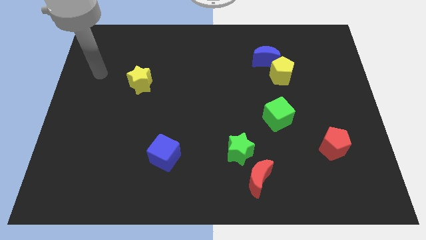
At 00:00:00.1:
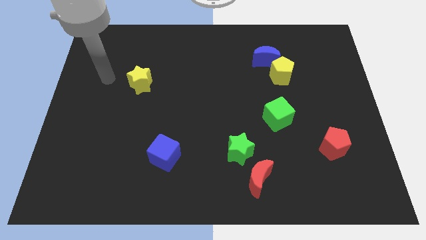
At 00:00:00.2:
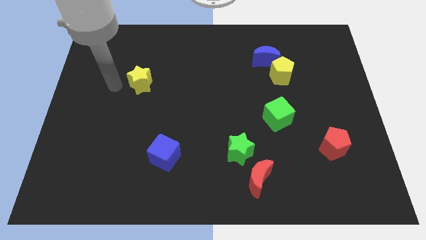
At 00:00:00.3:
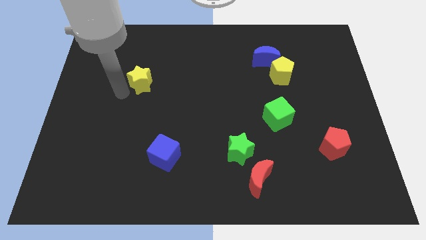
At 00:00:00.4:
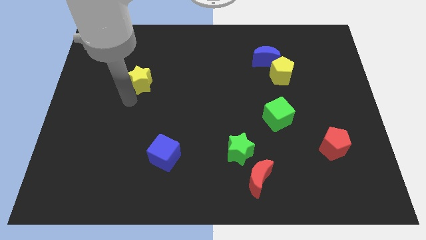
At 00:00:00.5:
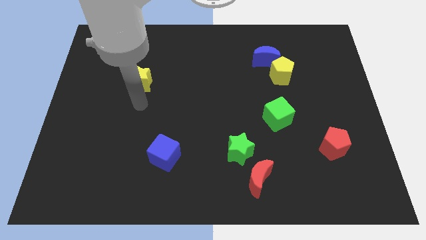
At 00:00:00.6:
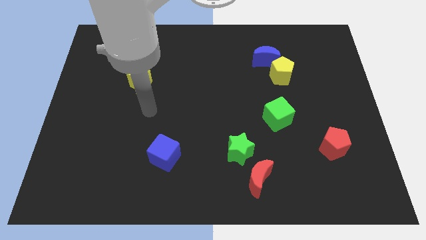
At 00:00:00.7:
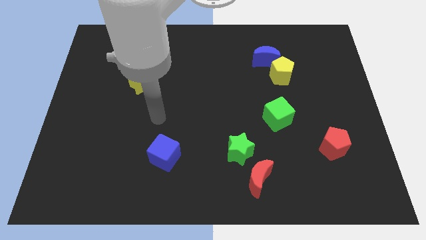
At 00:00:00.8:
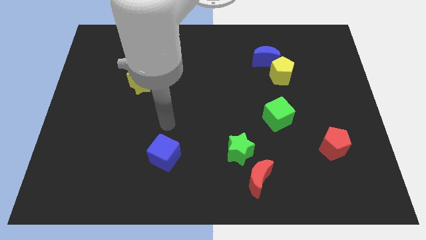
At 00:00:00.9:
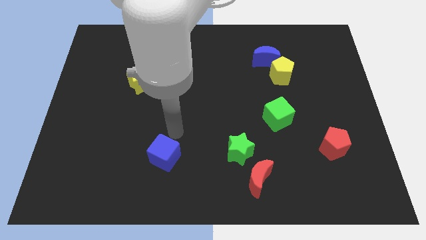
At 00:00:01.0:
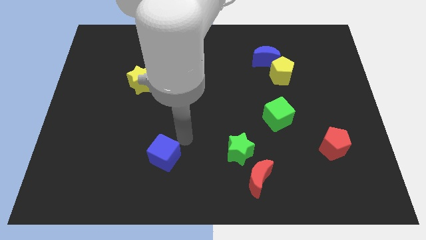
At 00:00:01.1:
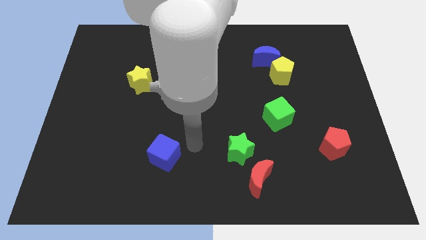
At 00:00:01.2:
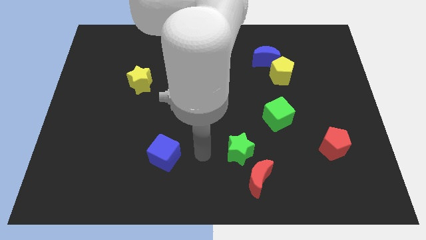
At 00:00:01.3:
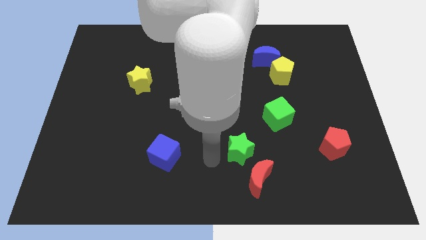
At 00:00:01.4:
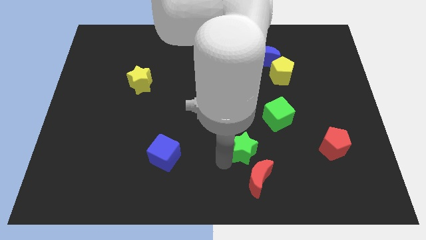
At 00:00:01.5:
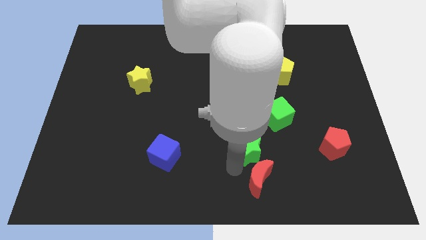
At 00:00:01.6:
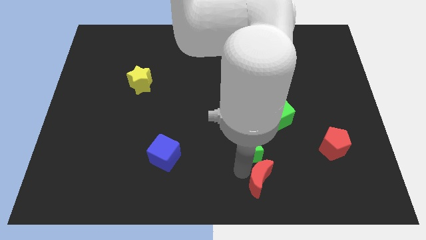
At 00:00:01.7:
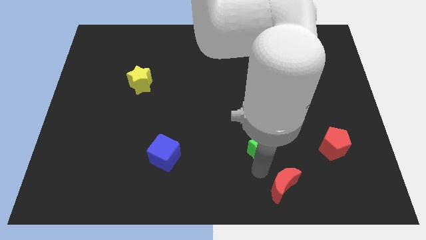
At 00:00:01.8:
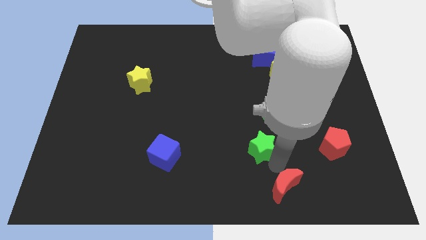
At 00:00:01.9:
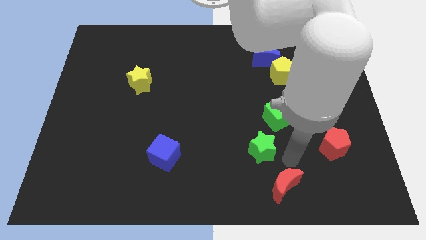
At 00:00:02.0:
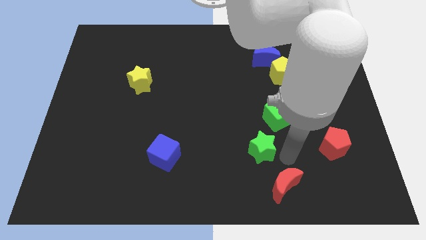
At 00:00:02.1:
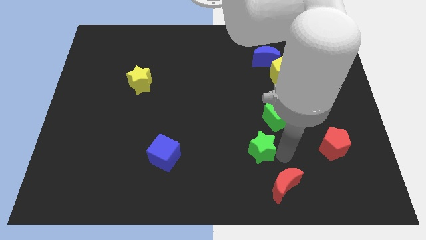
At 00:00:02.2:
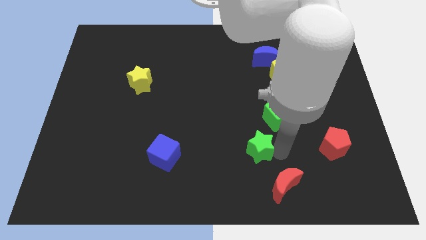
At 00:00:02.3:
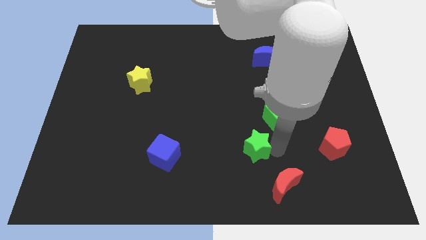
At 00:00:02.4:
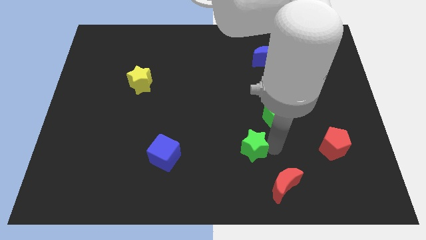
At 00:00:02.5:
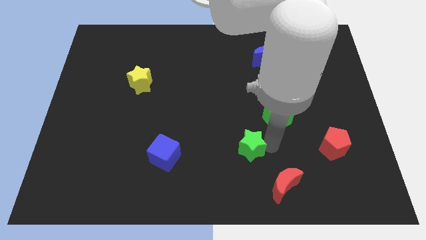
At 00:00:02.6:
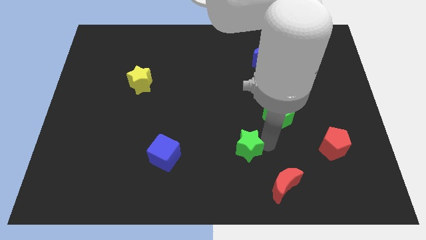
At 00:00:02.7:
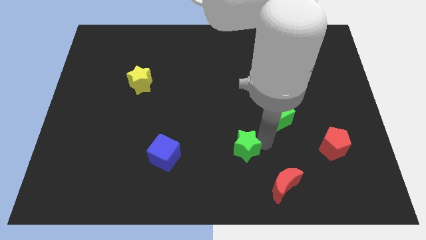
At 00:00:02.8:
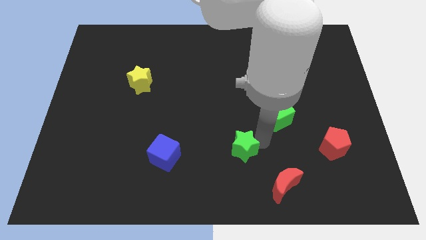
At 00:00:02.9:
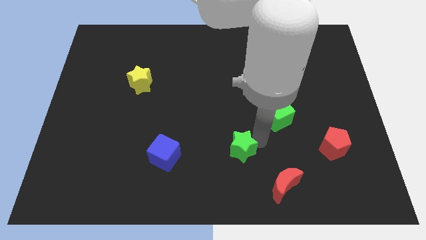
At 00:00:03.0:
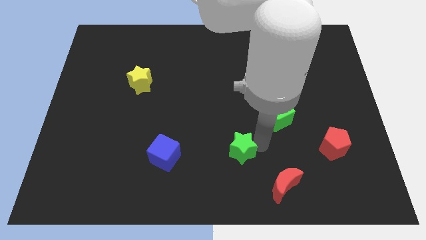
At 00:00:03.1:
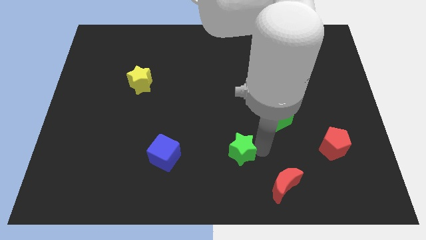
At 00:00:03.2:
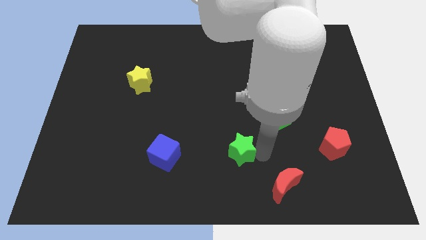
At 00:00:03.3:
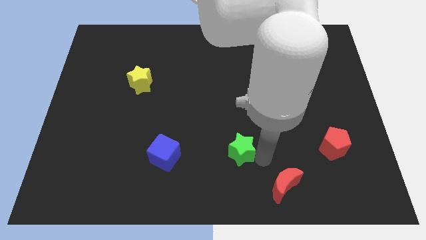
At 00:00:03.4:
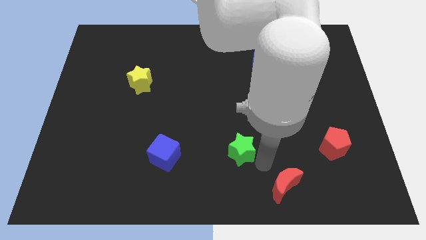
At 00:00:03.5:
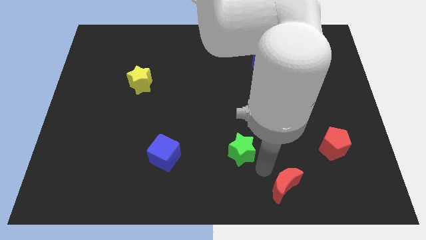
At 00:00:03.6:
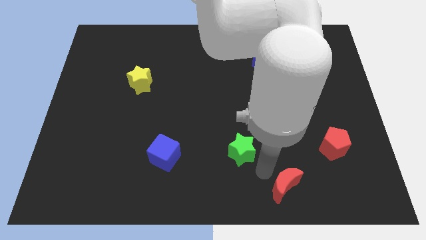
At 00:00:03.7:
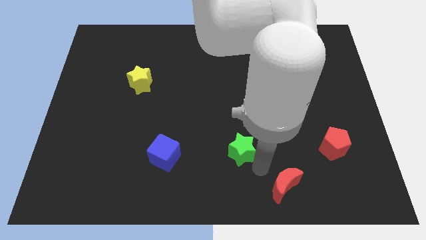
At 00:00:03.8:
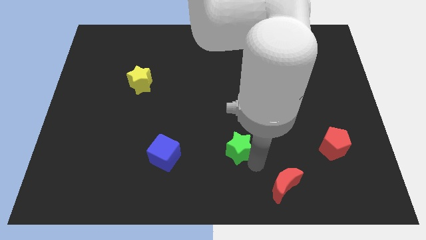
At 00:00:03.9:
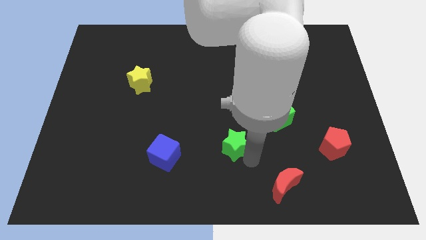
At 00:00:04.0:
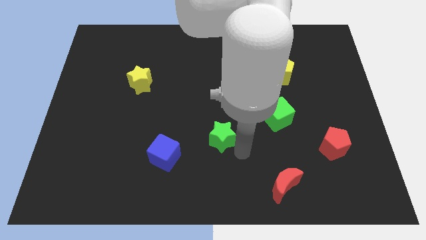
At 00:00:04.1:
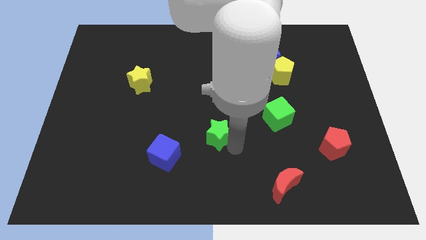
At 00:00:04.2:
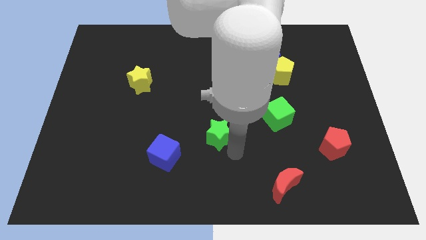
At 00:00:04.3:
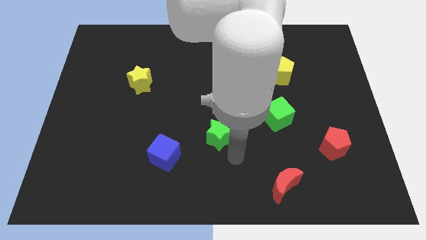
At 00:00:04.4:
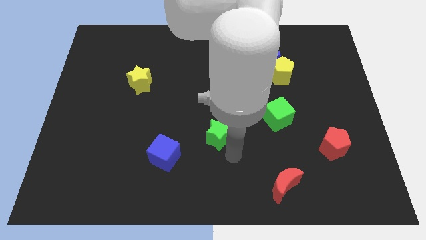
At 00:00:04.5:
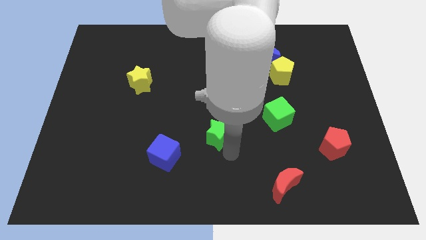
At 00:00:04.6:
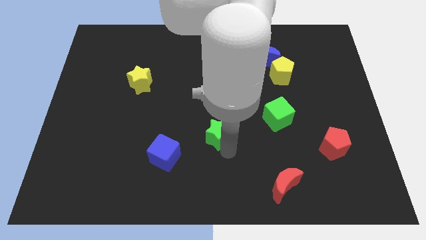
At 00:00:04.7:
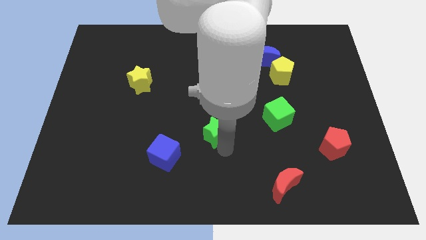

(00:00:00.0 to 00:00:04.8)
push the green star up and left diagonally somewhat

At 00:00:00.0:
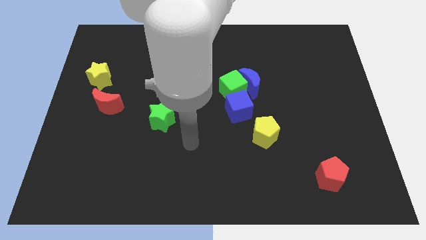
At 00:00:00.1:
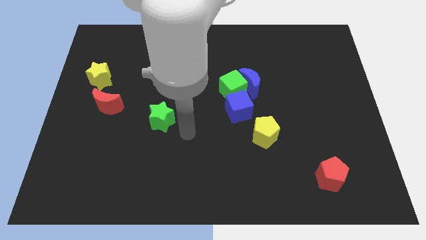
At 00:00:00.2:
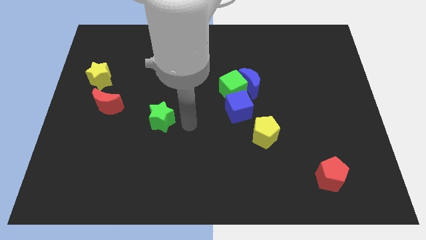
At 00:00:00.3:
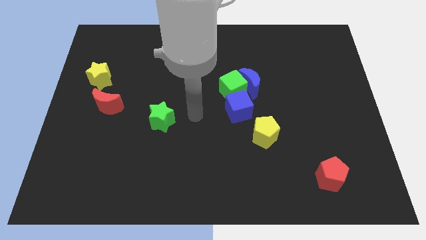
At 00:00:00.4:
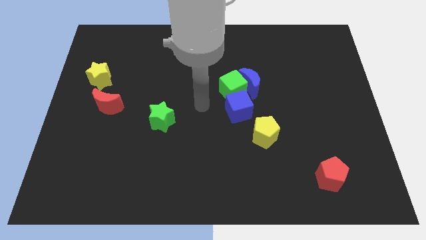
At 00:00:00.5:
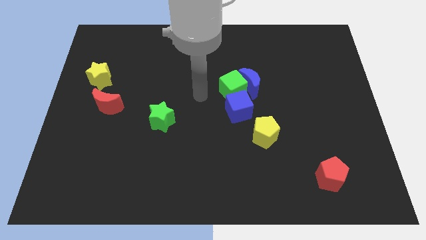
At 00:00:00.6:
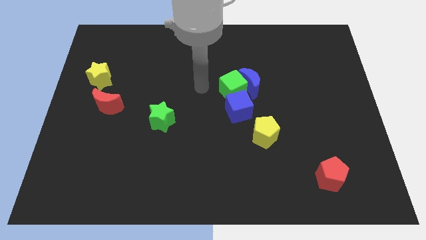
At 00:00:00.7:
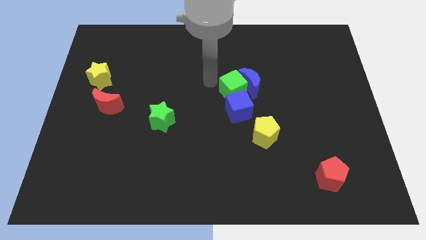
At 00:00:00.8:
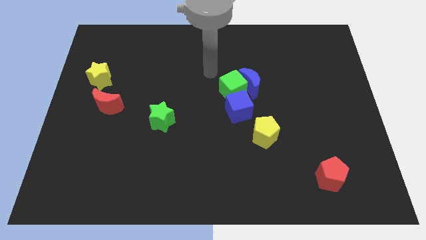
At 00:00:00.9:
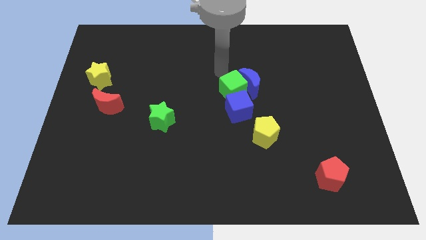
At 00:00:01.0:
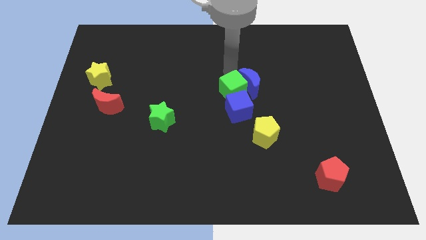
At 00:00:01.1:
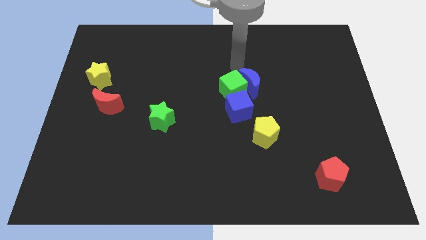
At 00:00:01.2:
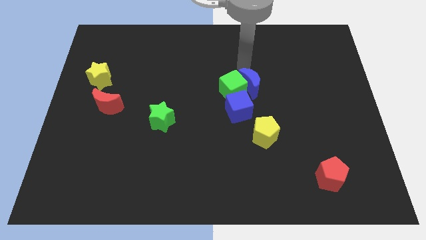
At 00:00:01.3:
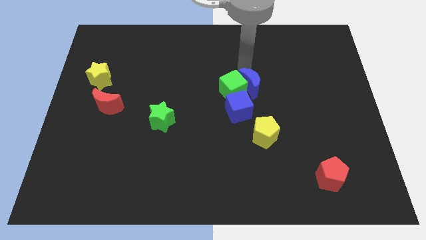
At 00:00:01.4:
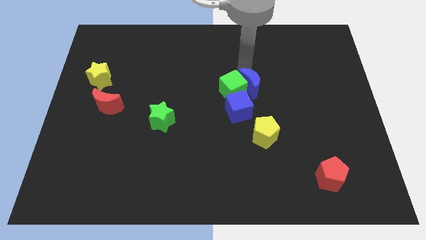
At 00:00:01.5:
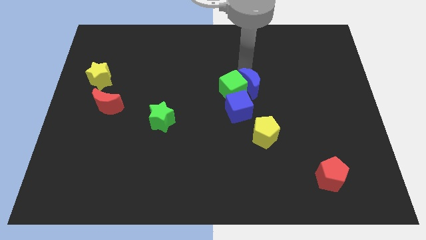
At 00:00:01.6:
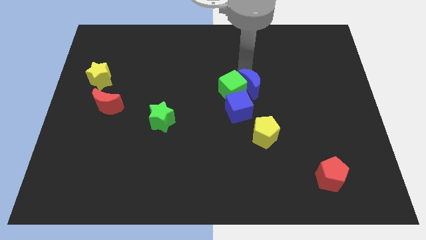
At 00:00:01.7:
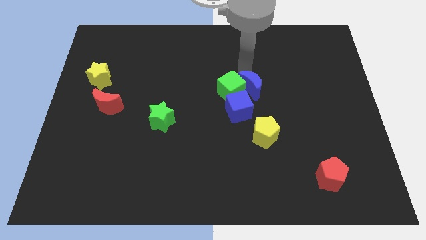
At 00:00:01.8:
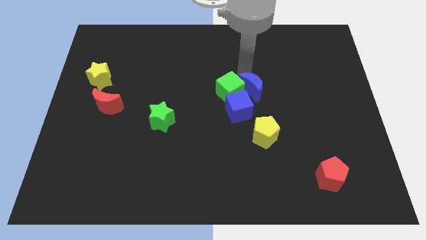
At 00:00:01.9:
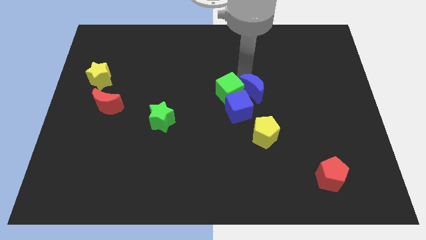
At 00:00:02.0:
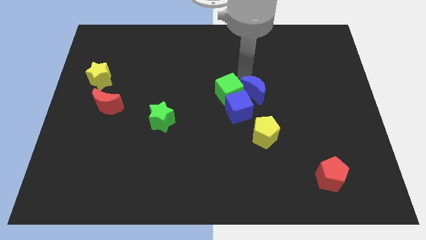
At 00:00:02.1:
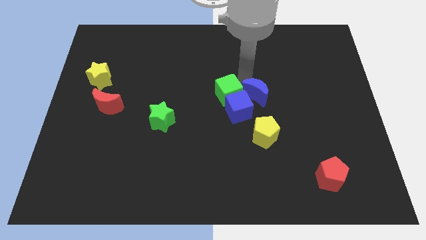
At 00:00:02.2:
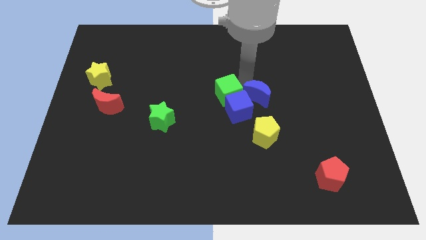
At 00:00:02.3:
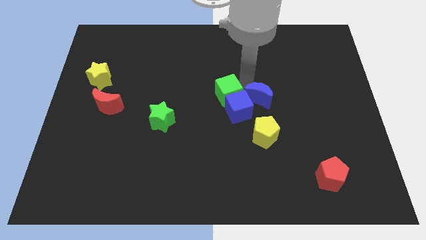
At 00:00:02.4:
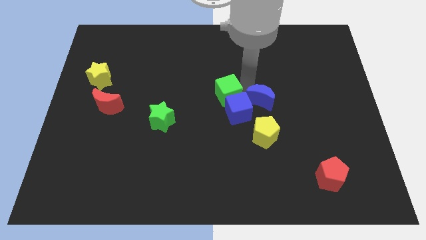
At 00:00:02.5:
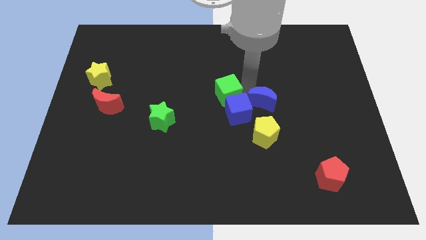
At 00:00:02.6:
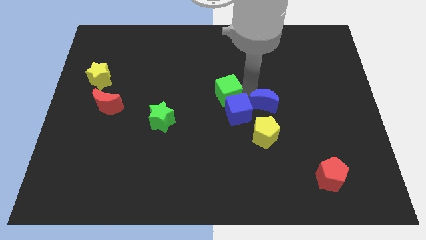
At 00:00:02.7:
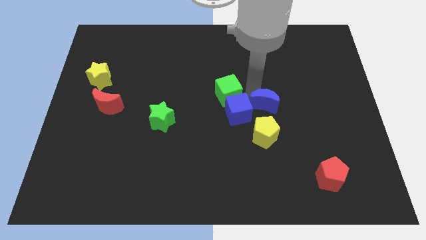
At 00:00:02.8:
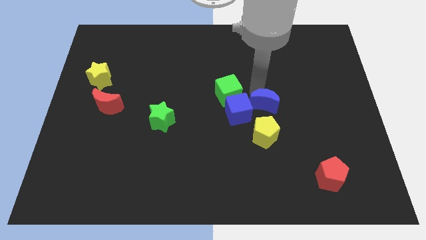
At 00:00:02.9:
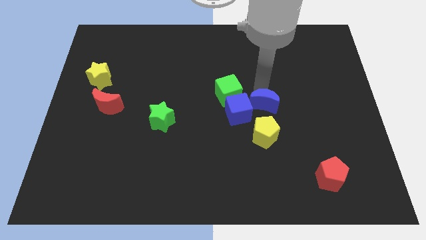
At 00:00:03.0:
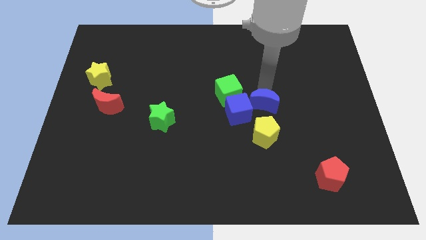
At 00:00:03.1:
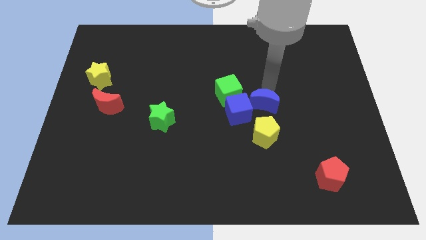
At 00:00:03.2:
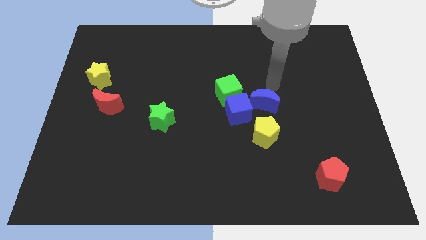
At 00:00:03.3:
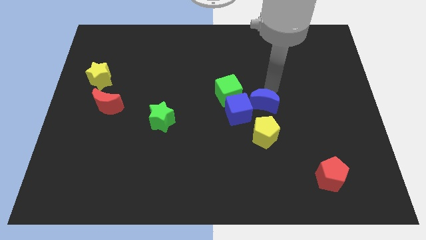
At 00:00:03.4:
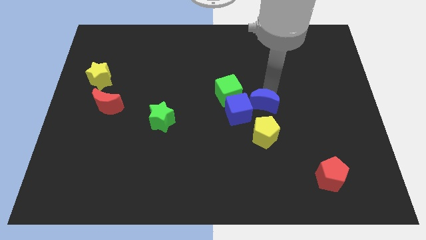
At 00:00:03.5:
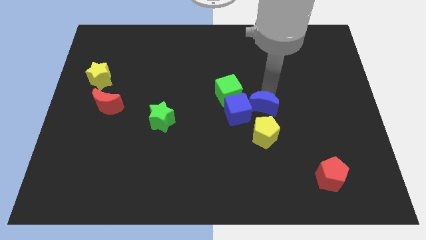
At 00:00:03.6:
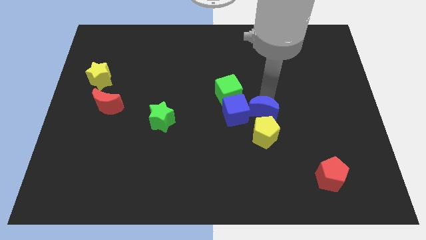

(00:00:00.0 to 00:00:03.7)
slide the blue moon a little down
